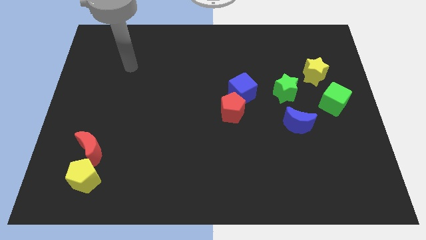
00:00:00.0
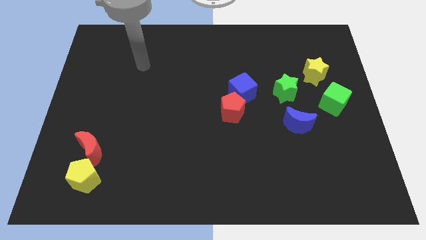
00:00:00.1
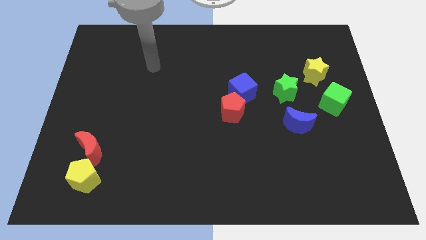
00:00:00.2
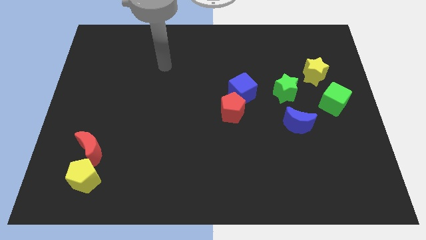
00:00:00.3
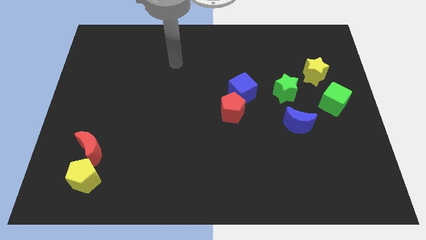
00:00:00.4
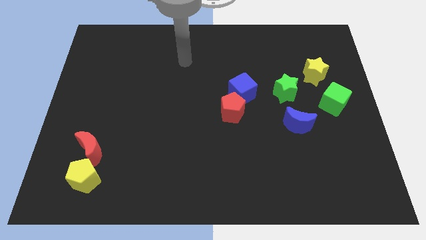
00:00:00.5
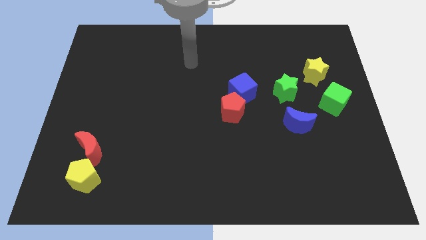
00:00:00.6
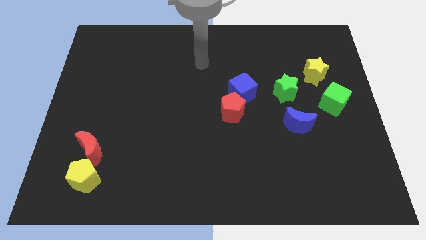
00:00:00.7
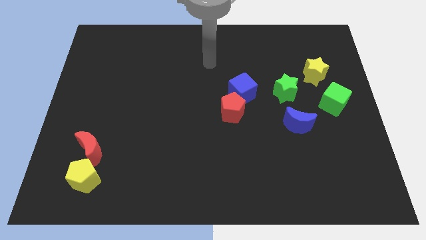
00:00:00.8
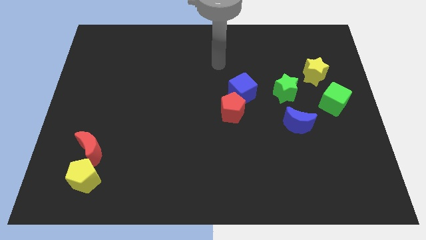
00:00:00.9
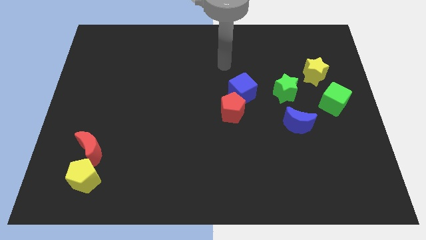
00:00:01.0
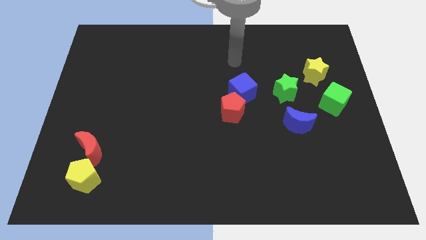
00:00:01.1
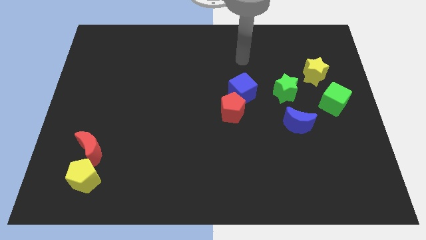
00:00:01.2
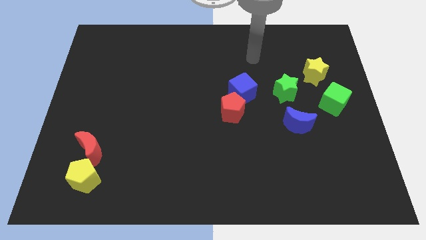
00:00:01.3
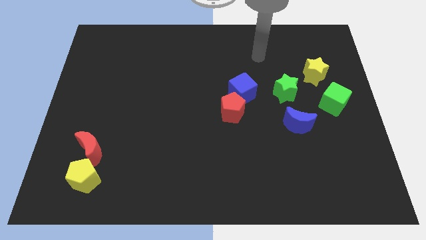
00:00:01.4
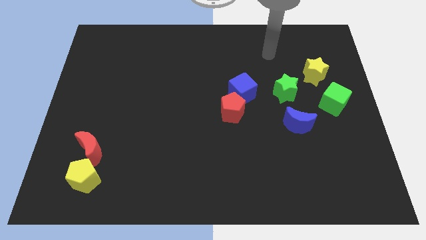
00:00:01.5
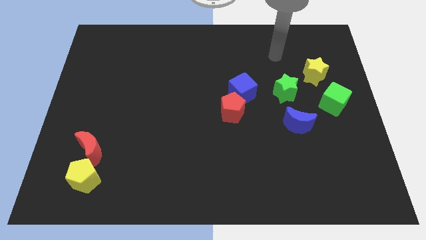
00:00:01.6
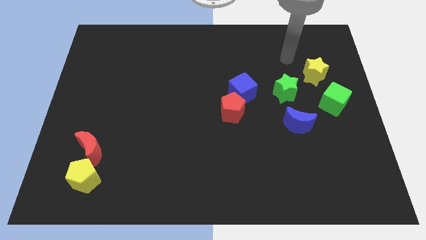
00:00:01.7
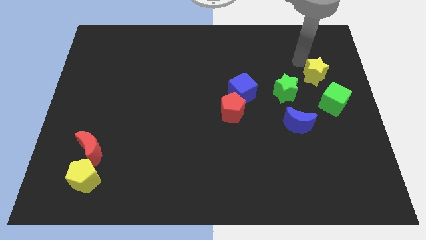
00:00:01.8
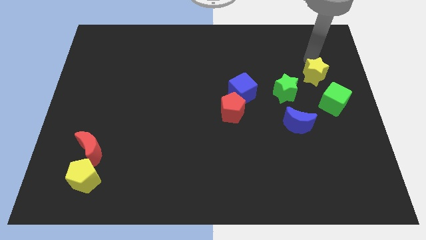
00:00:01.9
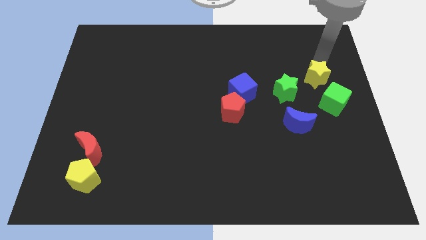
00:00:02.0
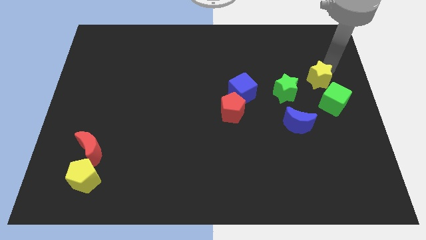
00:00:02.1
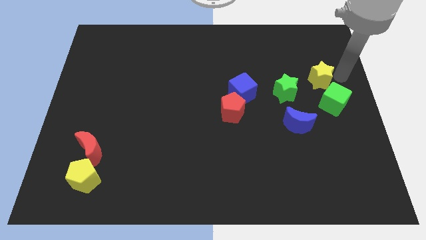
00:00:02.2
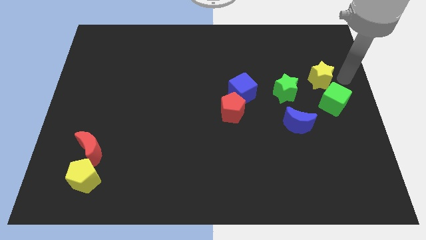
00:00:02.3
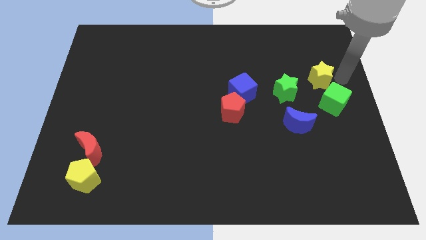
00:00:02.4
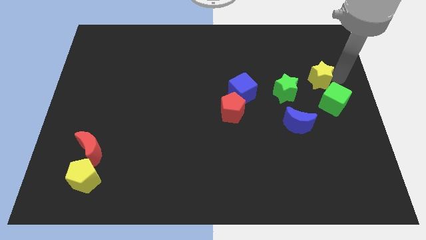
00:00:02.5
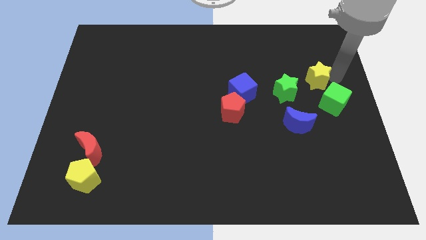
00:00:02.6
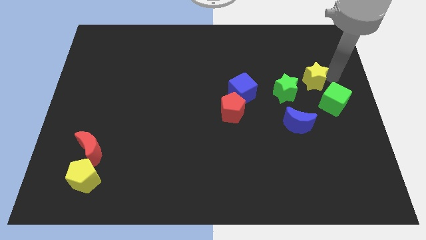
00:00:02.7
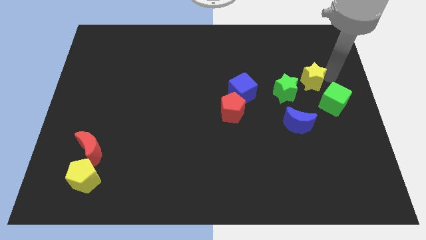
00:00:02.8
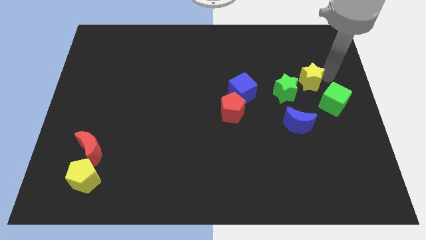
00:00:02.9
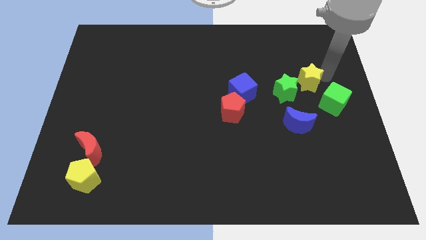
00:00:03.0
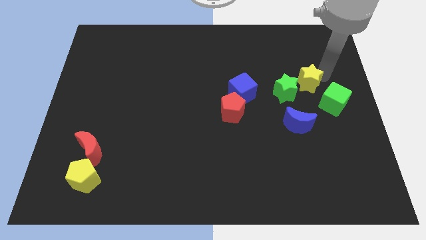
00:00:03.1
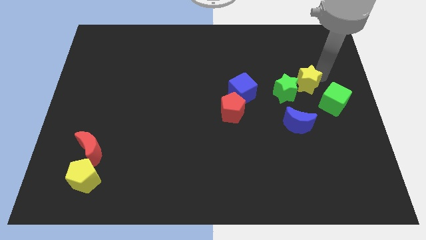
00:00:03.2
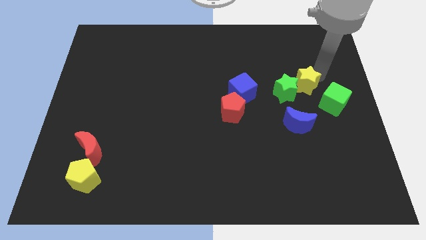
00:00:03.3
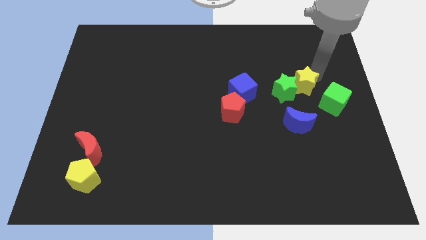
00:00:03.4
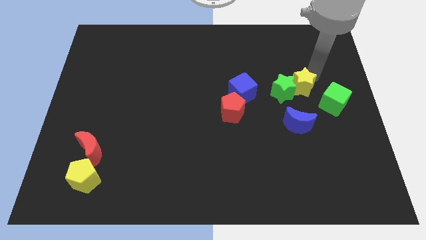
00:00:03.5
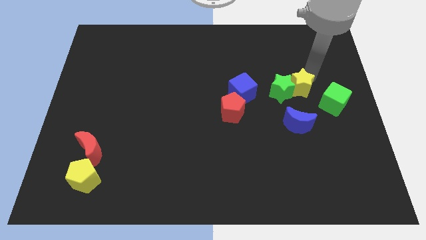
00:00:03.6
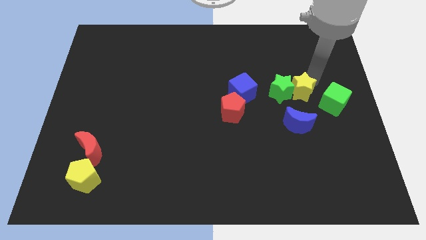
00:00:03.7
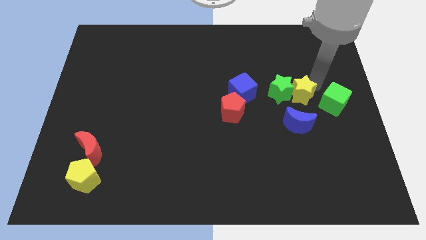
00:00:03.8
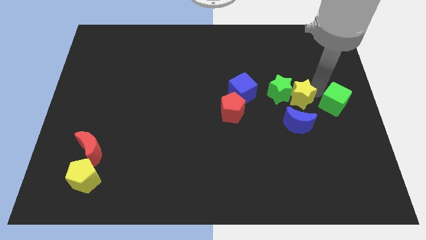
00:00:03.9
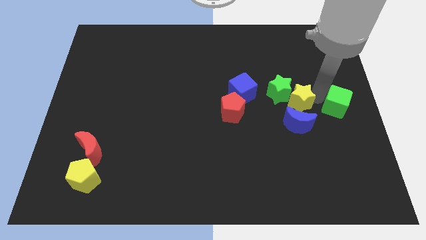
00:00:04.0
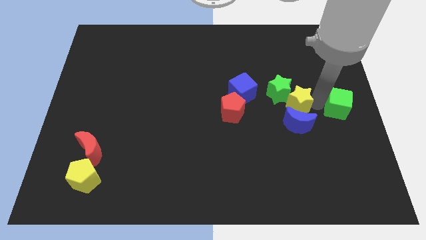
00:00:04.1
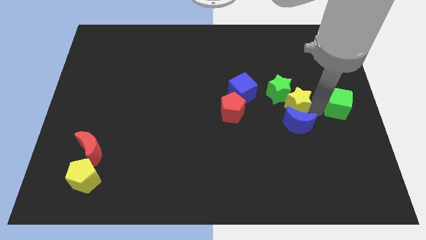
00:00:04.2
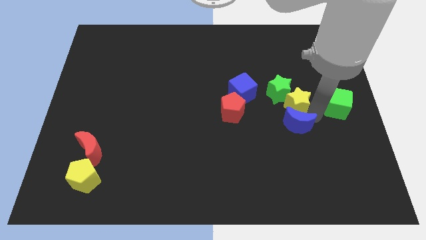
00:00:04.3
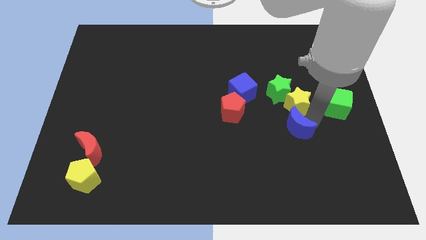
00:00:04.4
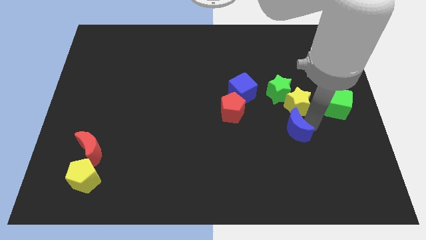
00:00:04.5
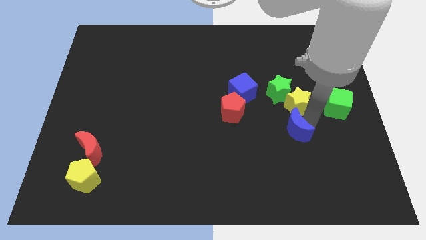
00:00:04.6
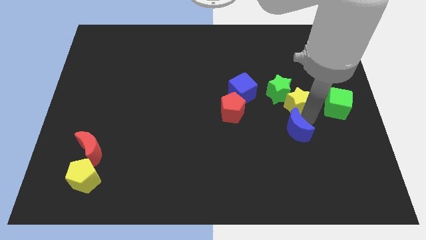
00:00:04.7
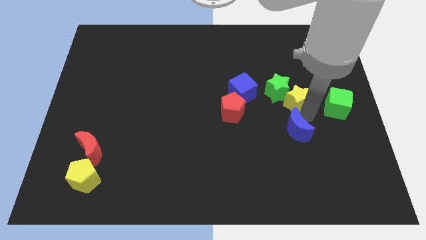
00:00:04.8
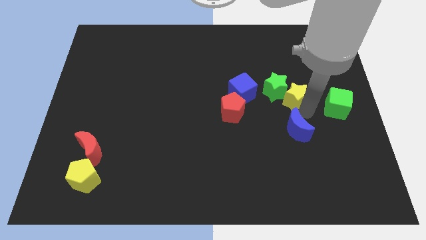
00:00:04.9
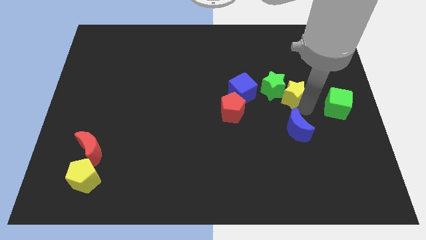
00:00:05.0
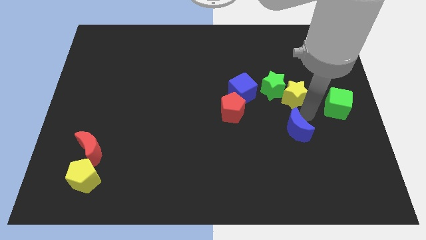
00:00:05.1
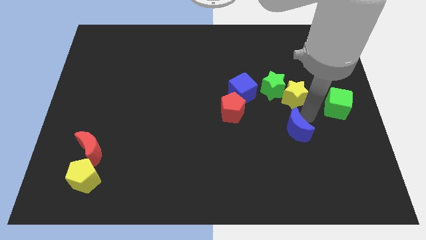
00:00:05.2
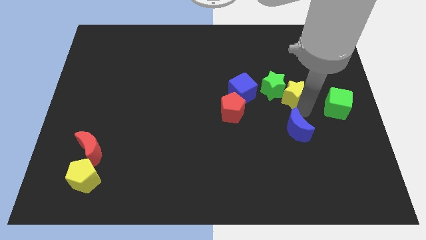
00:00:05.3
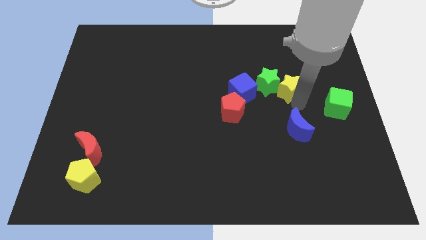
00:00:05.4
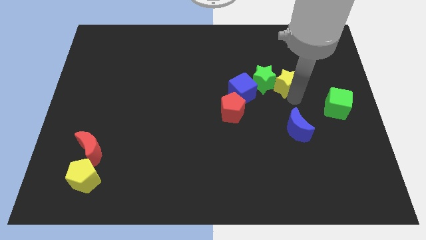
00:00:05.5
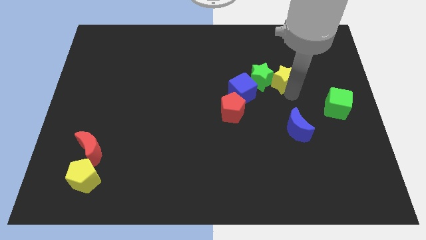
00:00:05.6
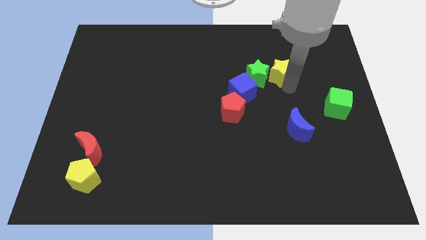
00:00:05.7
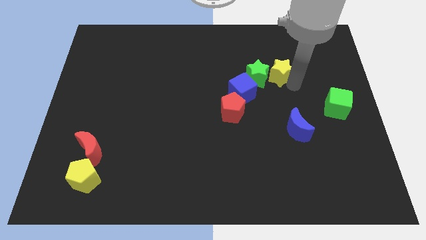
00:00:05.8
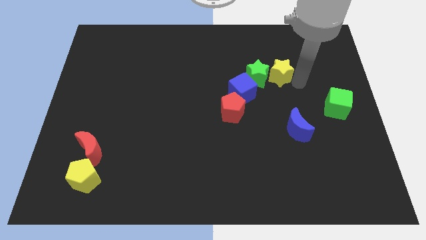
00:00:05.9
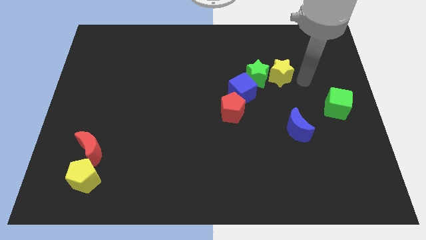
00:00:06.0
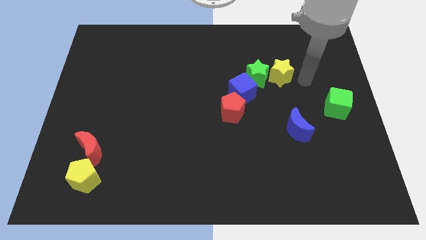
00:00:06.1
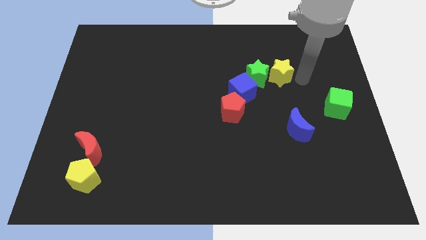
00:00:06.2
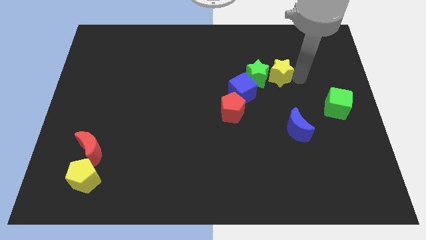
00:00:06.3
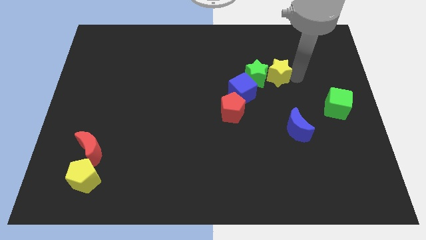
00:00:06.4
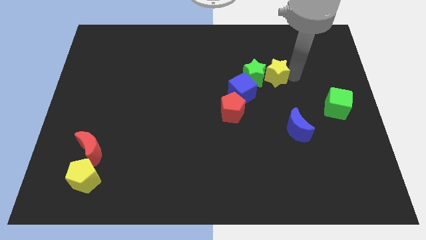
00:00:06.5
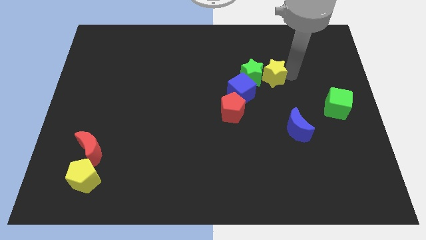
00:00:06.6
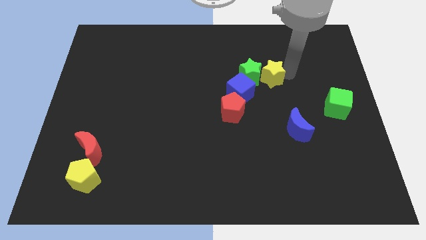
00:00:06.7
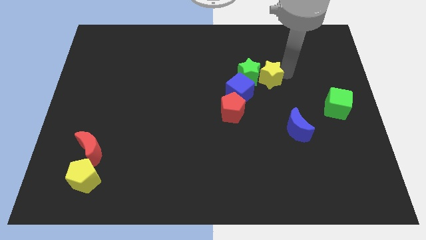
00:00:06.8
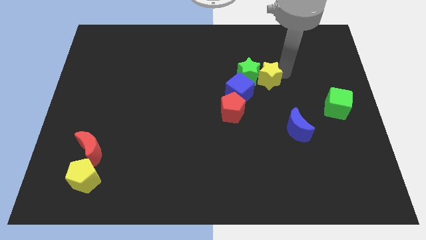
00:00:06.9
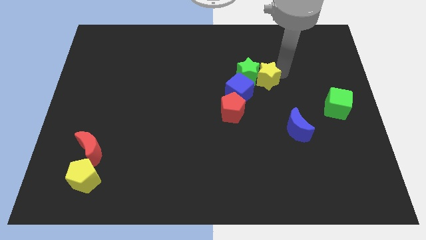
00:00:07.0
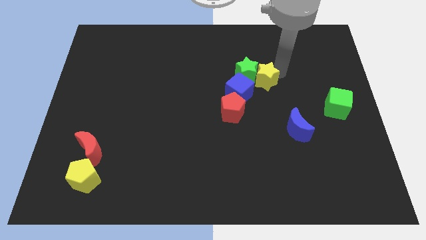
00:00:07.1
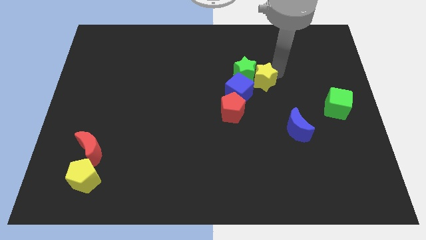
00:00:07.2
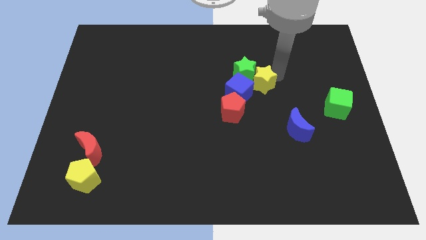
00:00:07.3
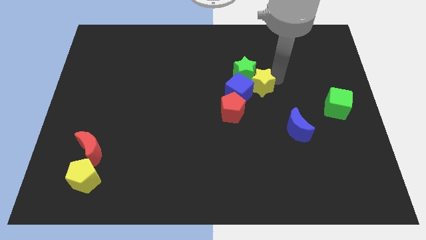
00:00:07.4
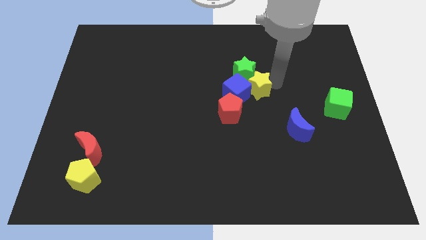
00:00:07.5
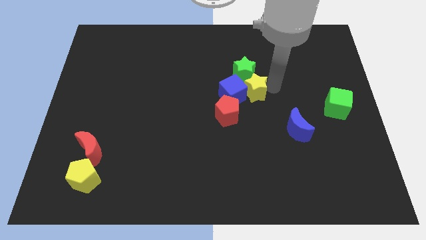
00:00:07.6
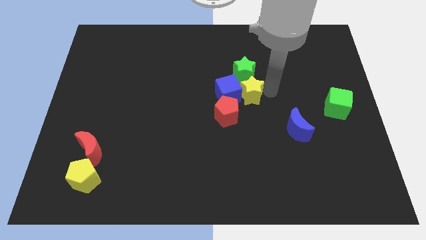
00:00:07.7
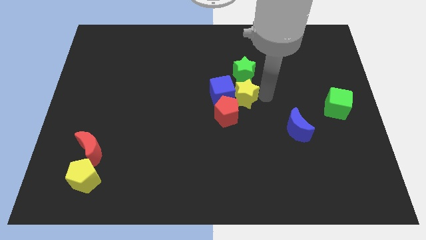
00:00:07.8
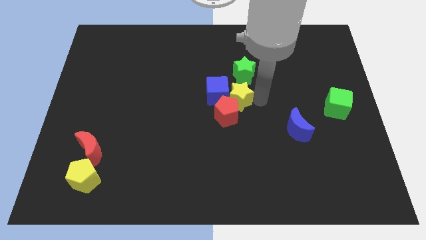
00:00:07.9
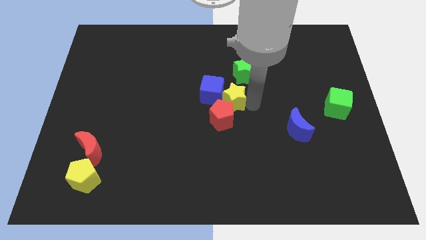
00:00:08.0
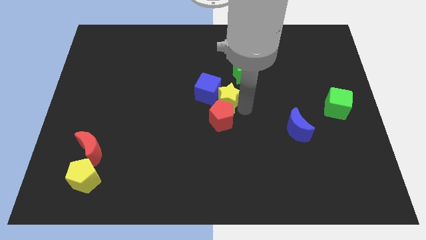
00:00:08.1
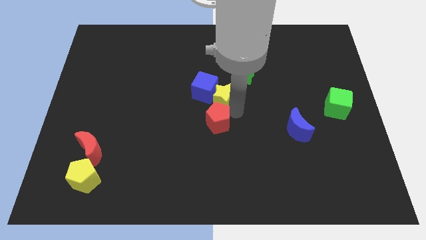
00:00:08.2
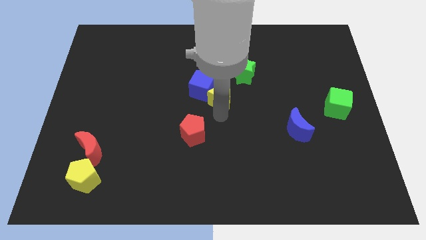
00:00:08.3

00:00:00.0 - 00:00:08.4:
slide the yellow star left
